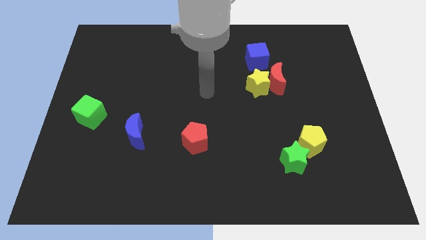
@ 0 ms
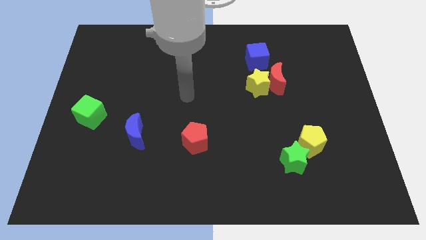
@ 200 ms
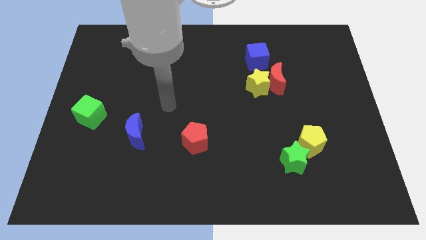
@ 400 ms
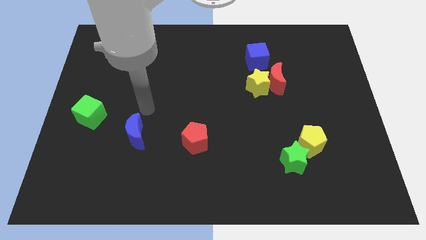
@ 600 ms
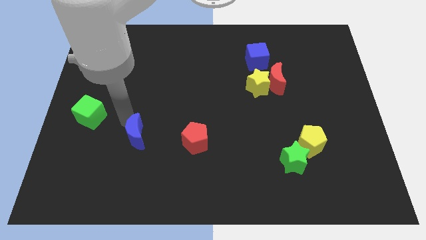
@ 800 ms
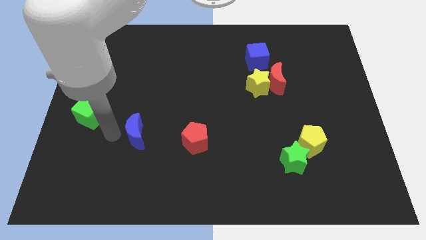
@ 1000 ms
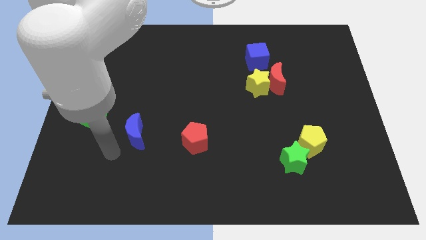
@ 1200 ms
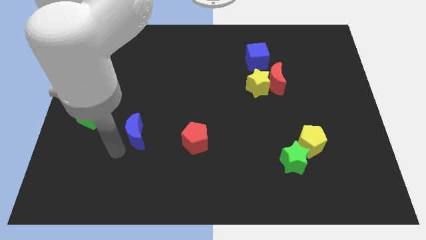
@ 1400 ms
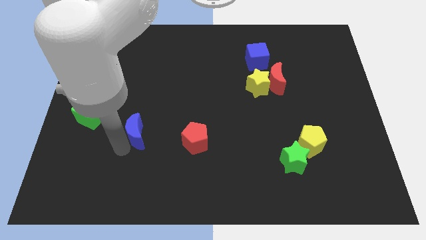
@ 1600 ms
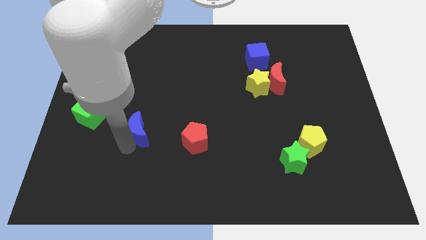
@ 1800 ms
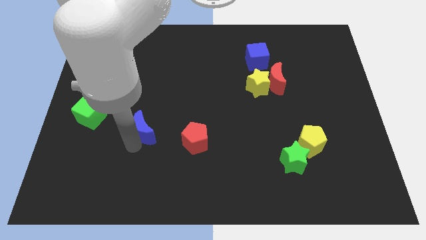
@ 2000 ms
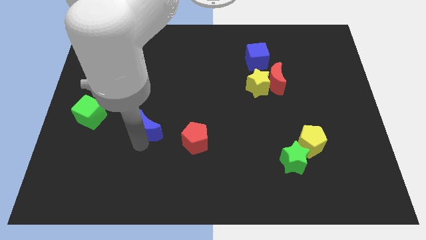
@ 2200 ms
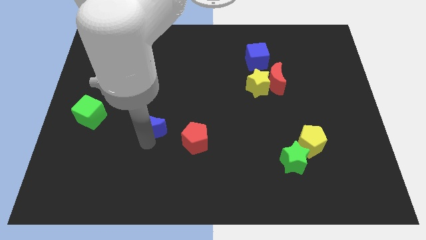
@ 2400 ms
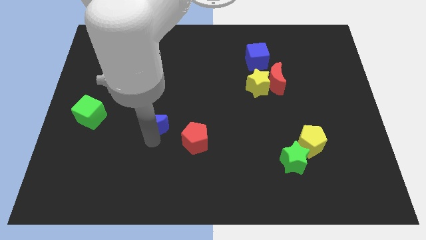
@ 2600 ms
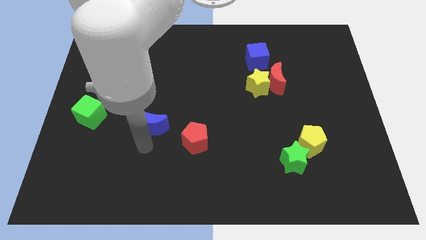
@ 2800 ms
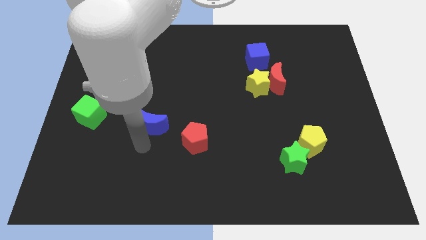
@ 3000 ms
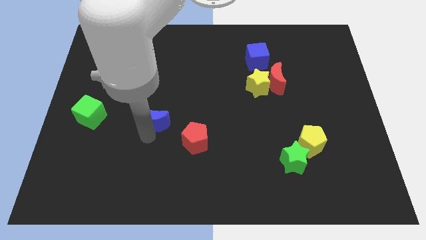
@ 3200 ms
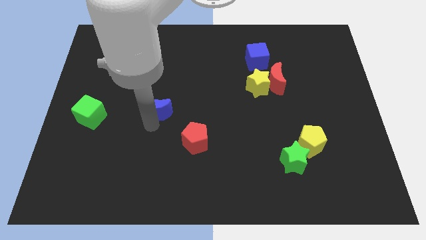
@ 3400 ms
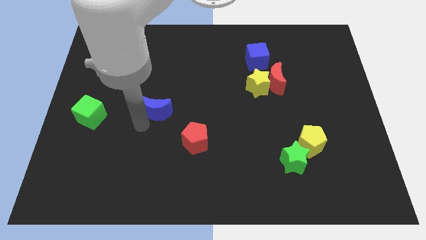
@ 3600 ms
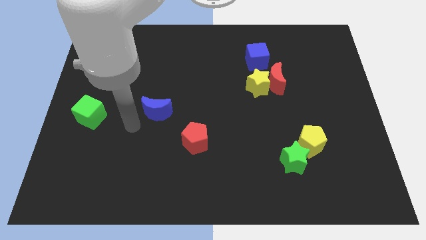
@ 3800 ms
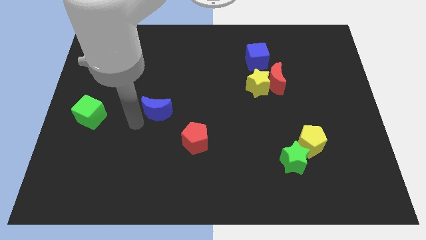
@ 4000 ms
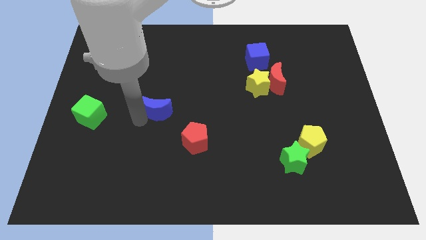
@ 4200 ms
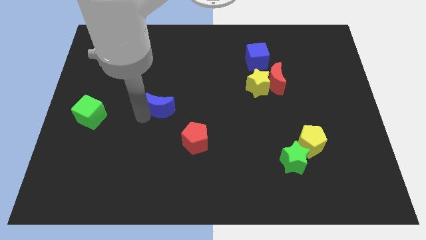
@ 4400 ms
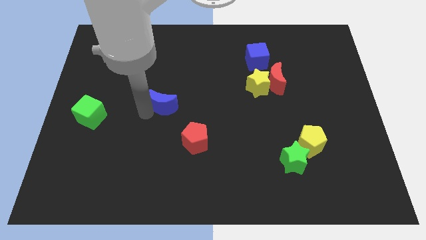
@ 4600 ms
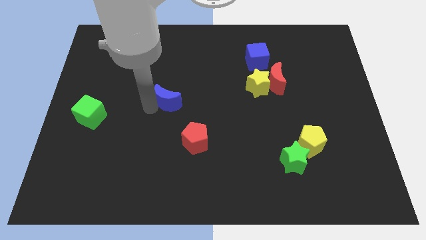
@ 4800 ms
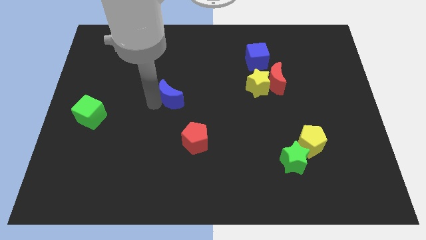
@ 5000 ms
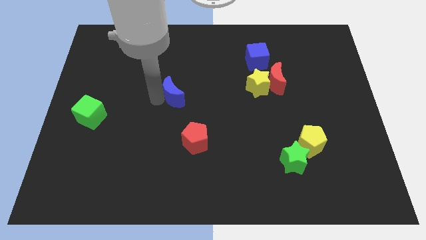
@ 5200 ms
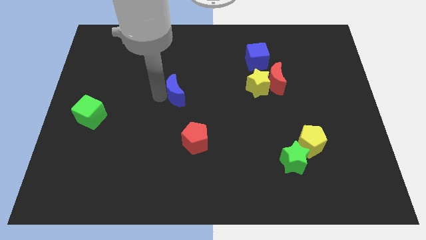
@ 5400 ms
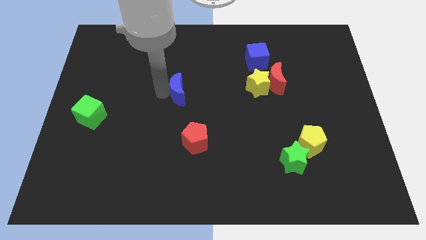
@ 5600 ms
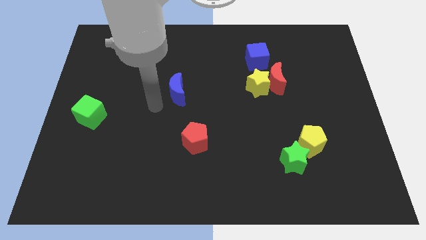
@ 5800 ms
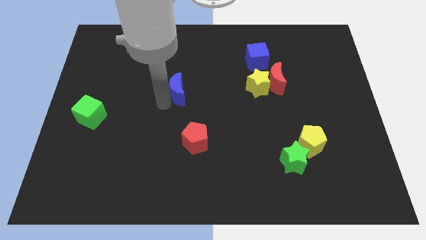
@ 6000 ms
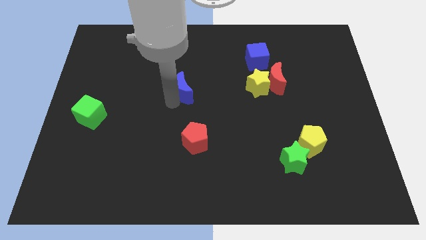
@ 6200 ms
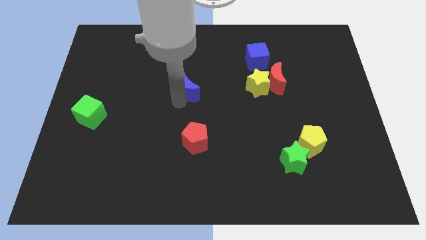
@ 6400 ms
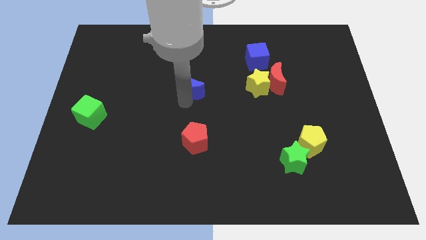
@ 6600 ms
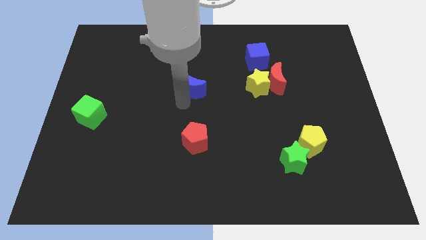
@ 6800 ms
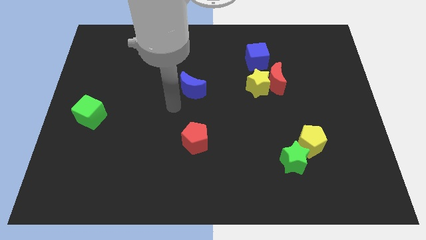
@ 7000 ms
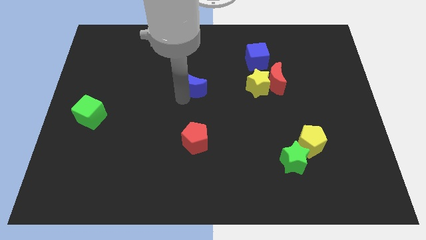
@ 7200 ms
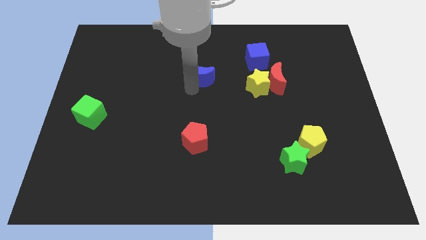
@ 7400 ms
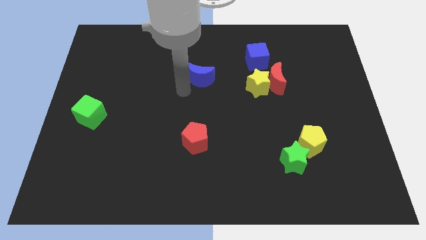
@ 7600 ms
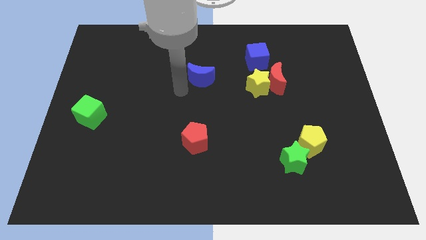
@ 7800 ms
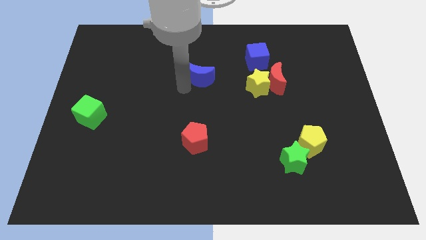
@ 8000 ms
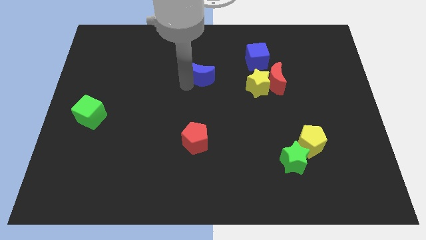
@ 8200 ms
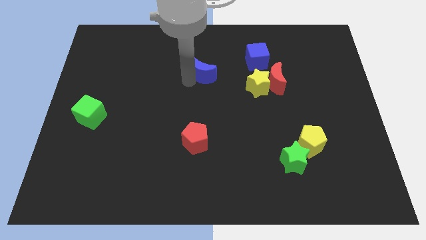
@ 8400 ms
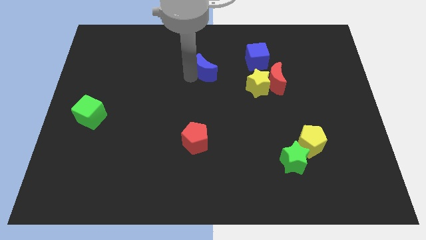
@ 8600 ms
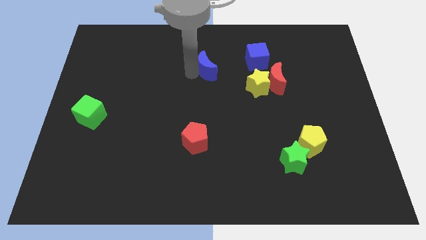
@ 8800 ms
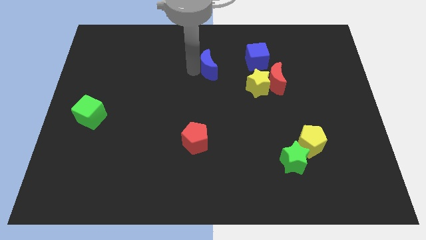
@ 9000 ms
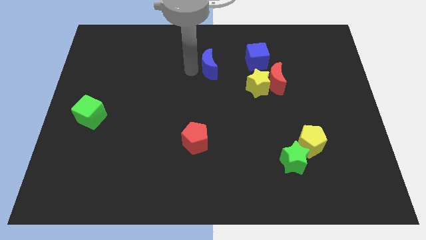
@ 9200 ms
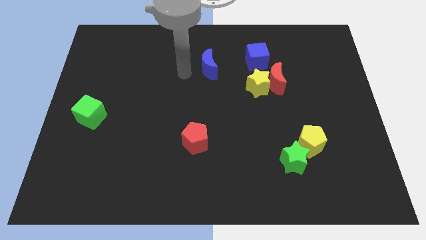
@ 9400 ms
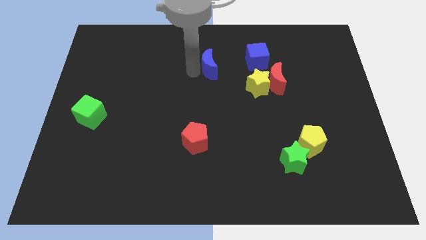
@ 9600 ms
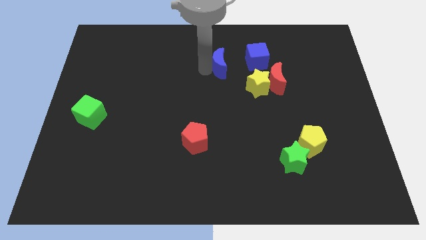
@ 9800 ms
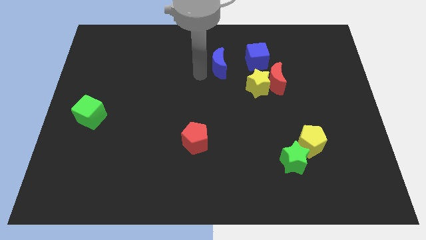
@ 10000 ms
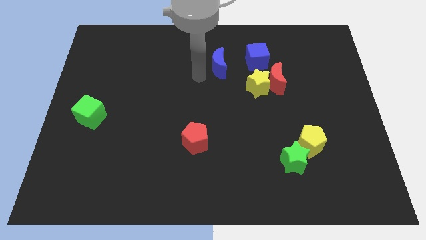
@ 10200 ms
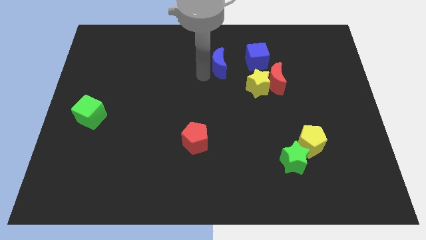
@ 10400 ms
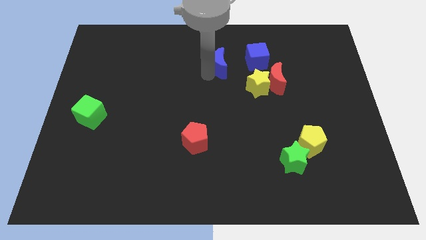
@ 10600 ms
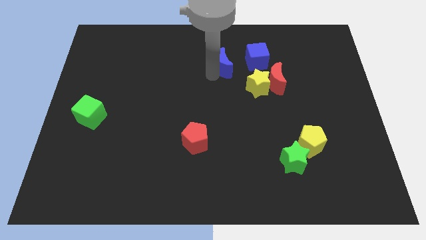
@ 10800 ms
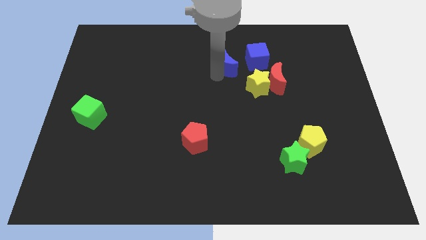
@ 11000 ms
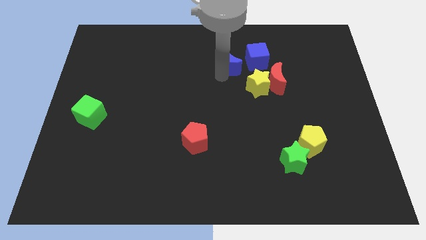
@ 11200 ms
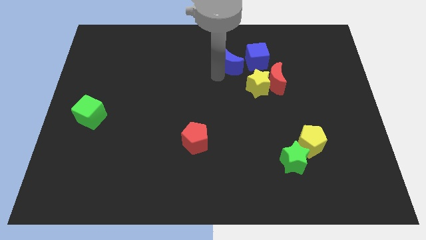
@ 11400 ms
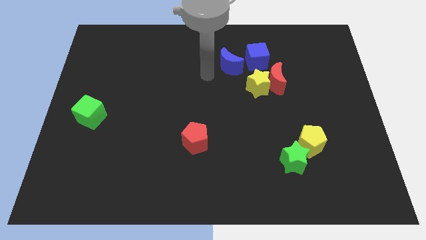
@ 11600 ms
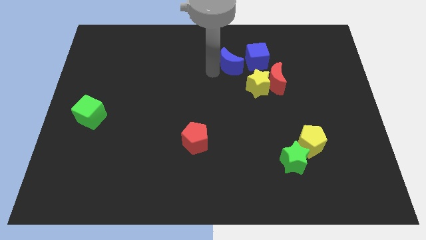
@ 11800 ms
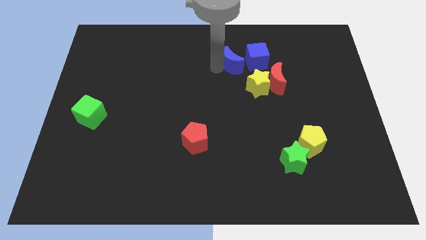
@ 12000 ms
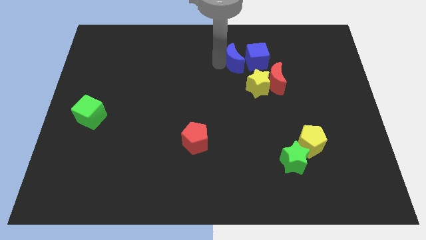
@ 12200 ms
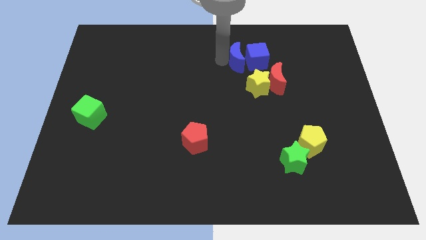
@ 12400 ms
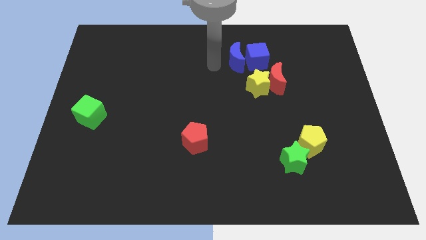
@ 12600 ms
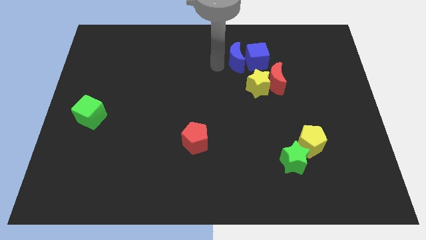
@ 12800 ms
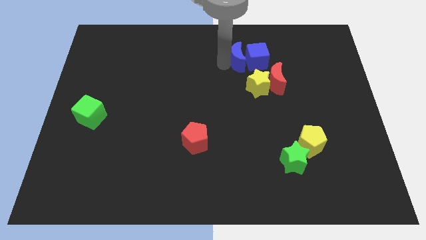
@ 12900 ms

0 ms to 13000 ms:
move the blue moon above the yellow star

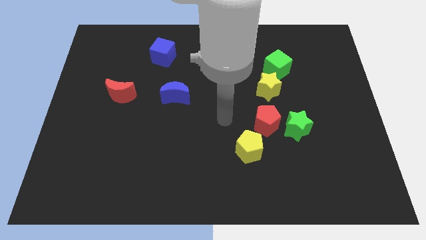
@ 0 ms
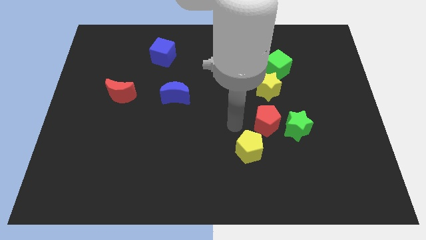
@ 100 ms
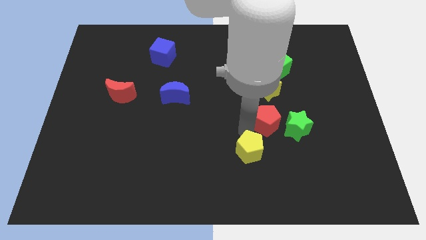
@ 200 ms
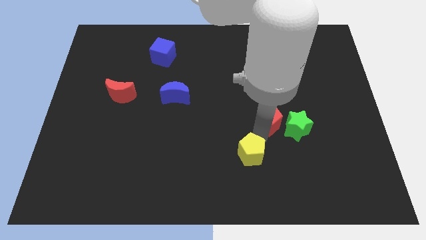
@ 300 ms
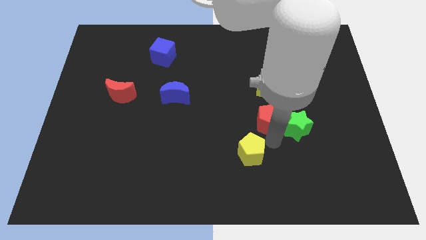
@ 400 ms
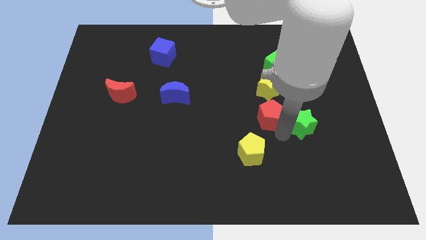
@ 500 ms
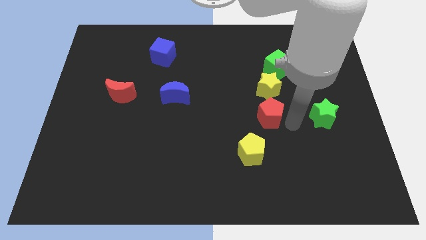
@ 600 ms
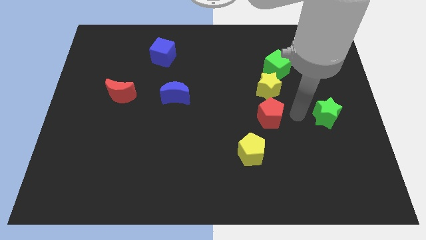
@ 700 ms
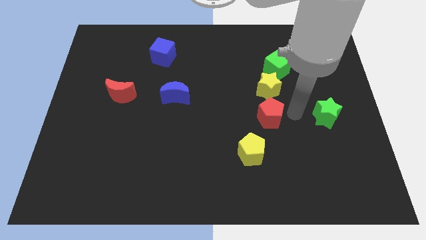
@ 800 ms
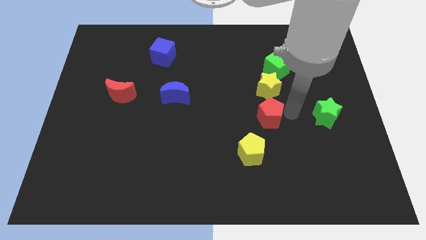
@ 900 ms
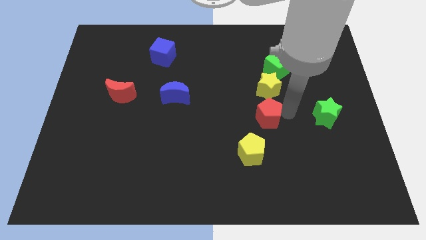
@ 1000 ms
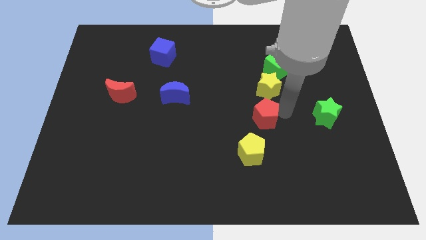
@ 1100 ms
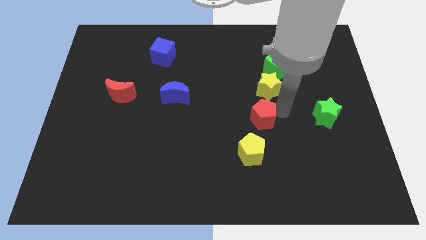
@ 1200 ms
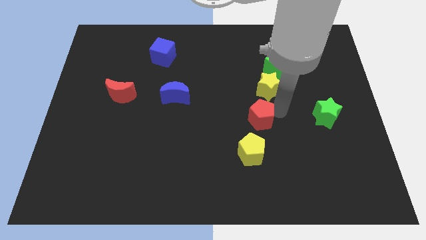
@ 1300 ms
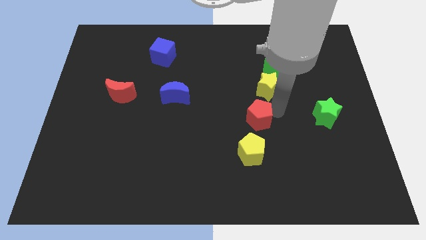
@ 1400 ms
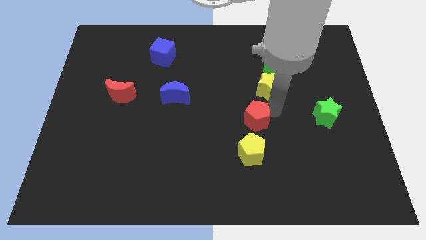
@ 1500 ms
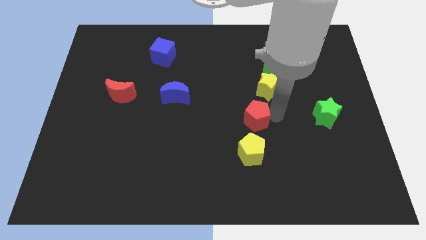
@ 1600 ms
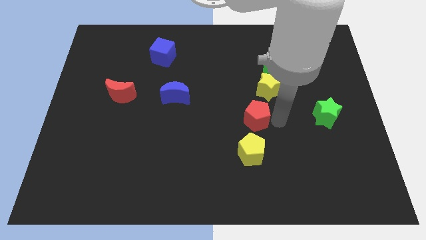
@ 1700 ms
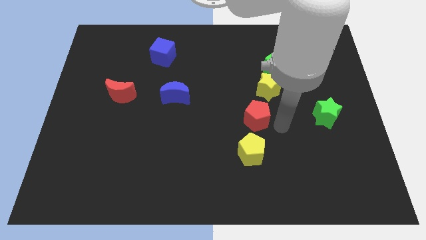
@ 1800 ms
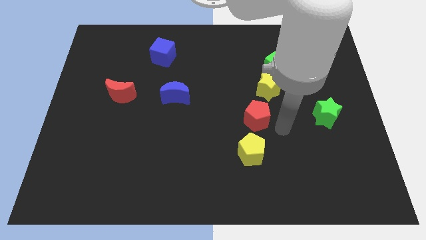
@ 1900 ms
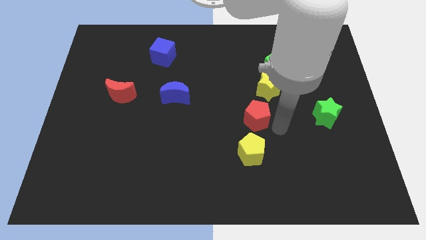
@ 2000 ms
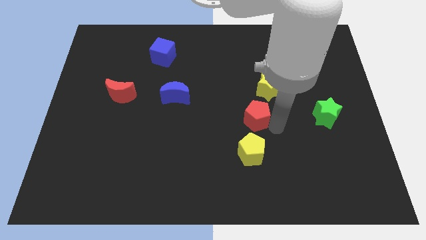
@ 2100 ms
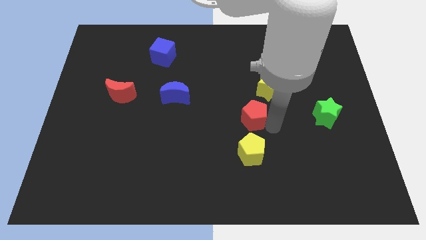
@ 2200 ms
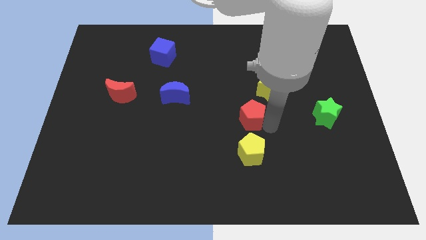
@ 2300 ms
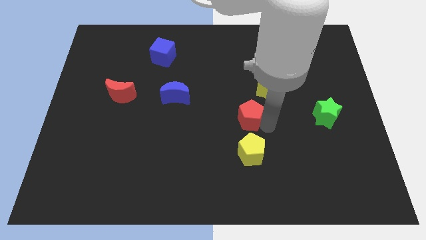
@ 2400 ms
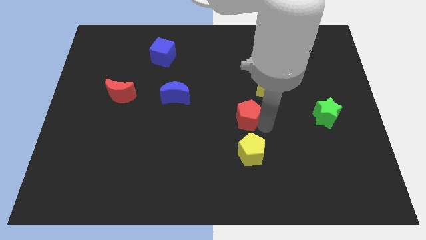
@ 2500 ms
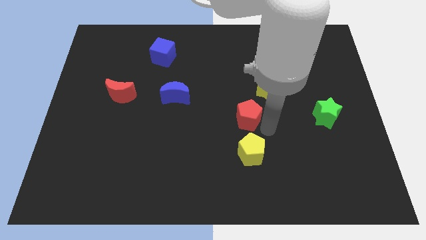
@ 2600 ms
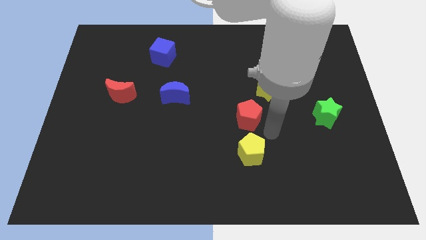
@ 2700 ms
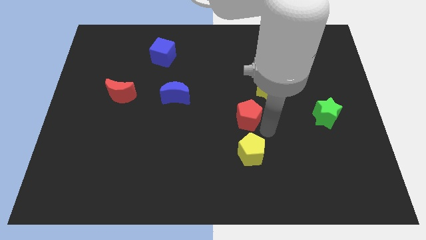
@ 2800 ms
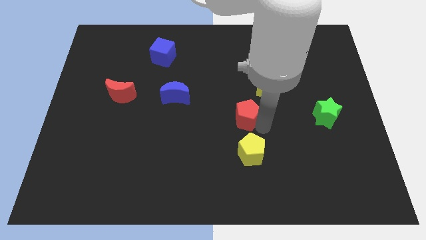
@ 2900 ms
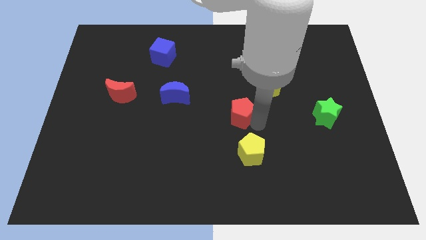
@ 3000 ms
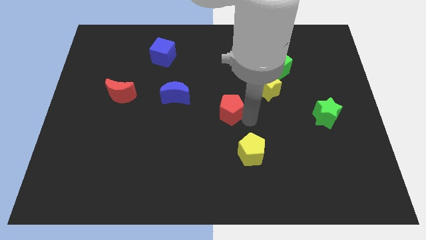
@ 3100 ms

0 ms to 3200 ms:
slide the red pentagon right of the blue moon
